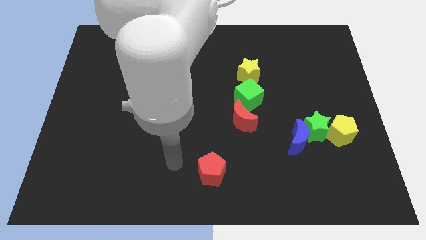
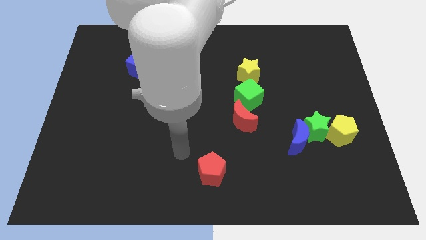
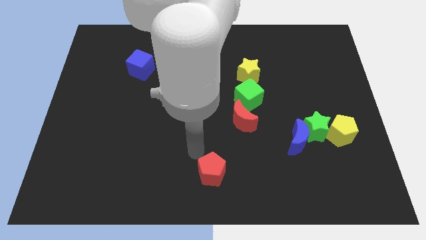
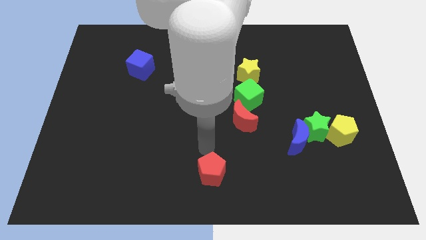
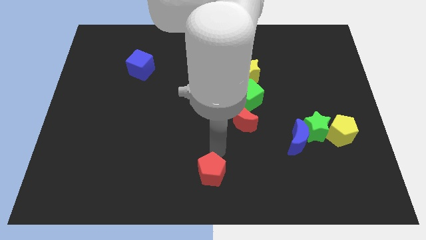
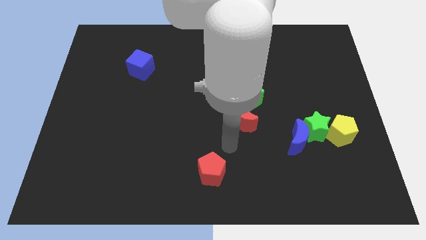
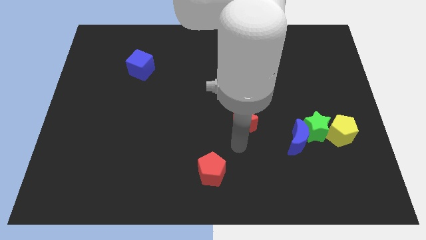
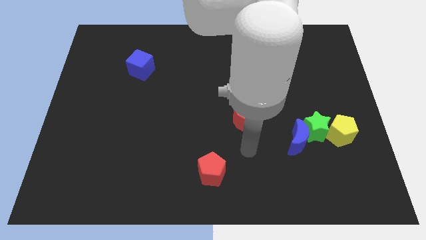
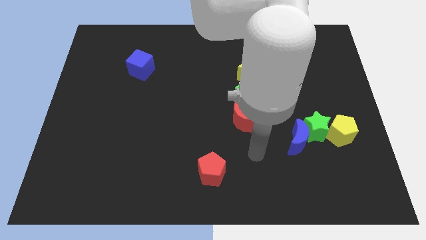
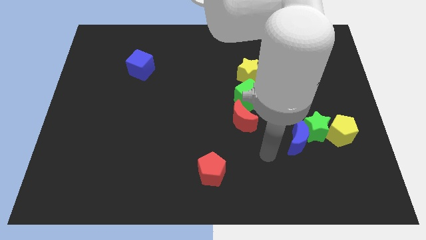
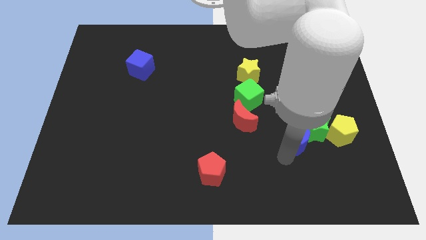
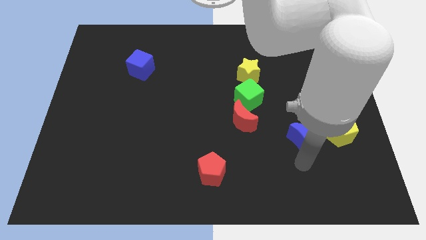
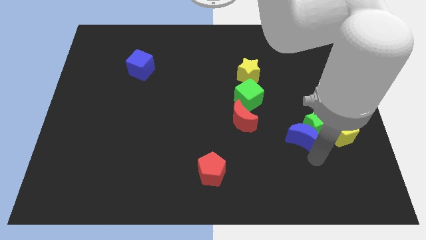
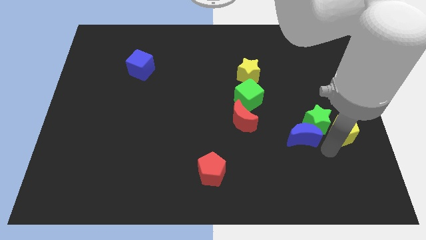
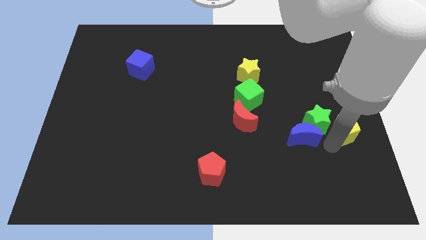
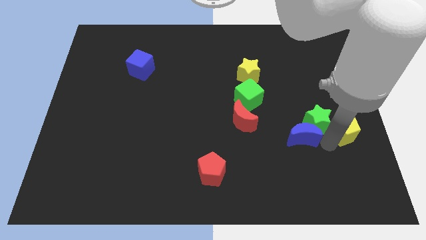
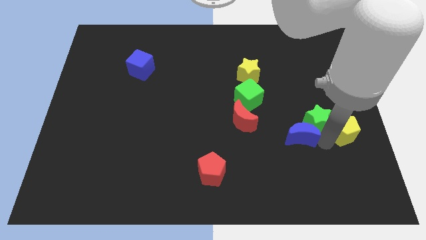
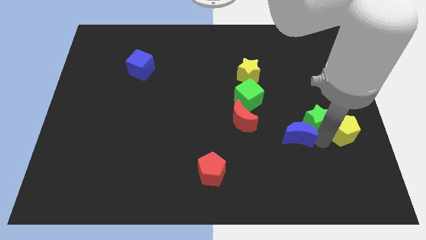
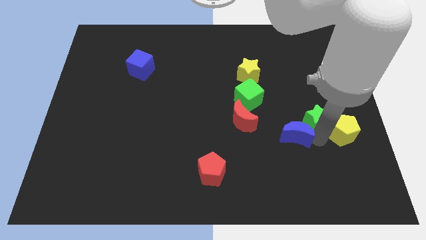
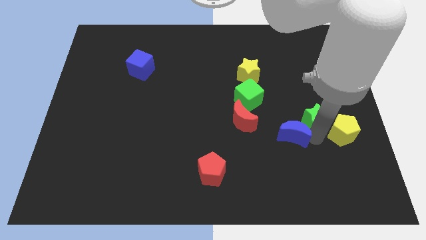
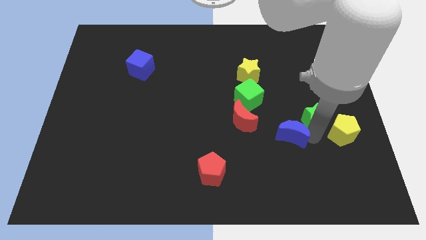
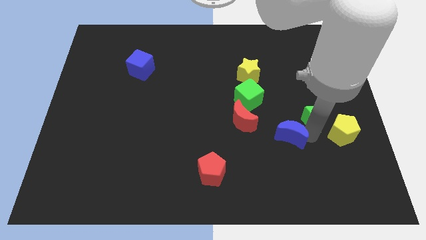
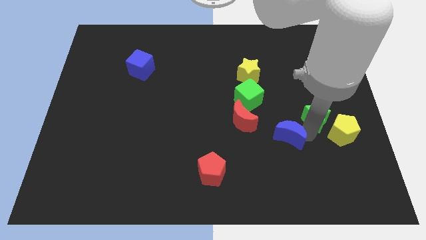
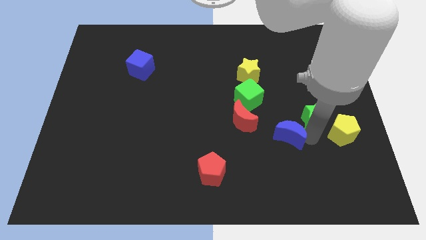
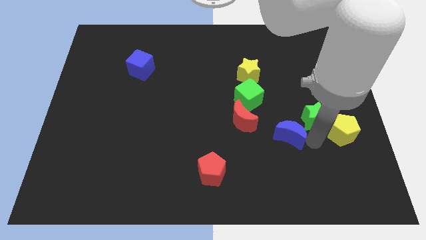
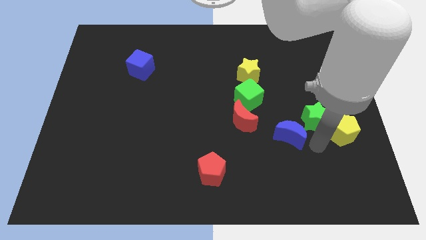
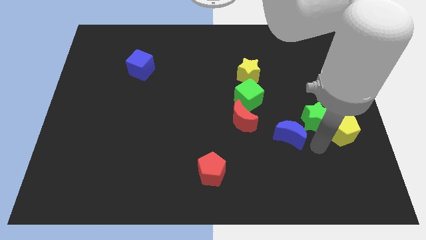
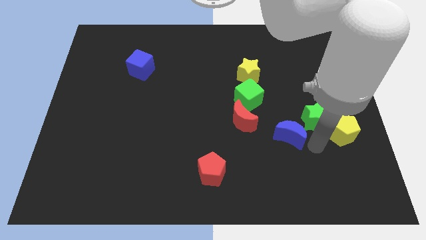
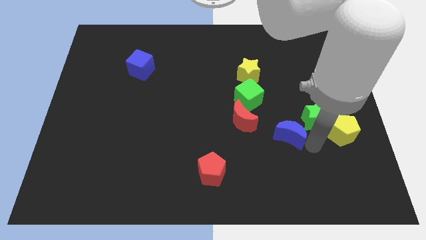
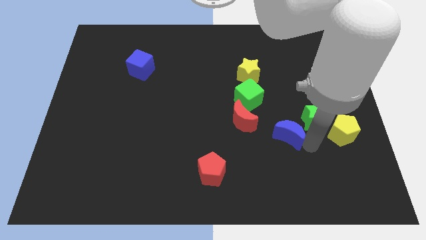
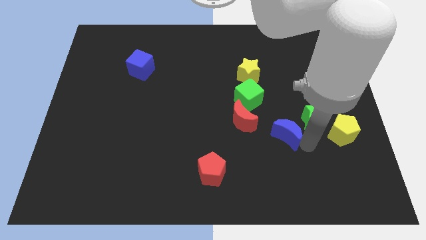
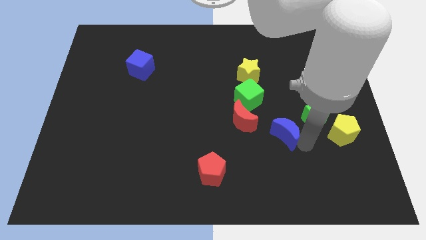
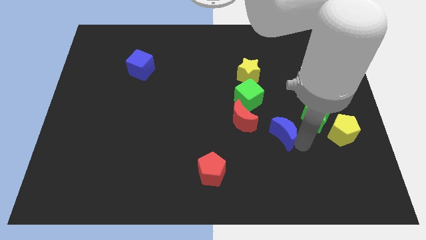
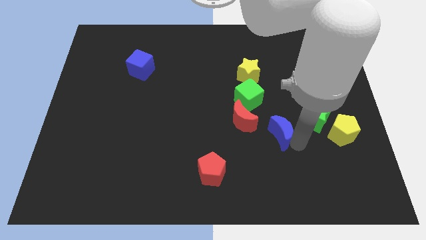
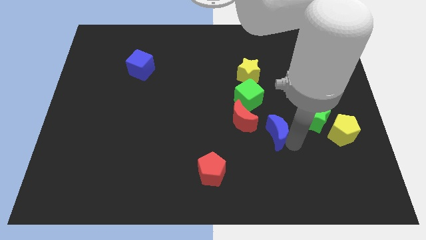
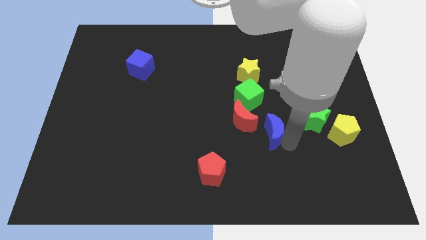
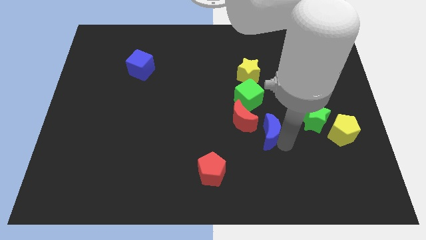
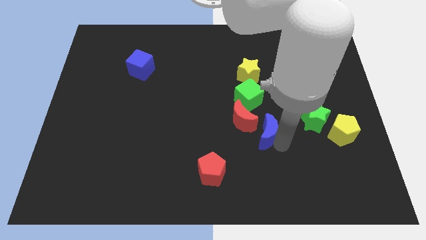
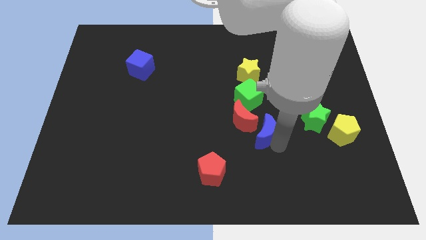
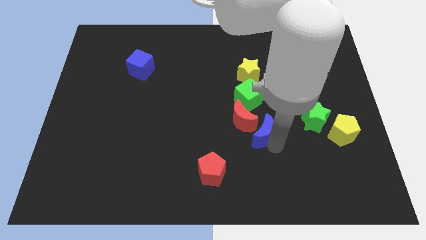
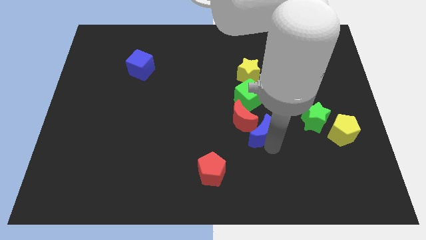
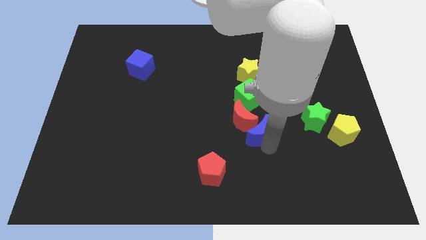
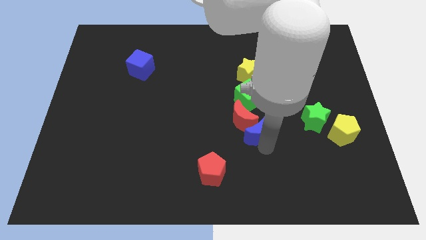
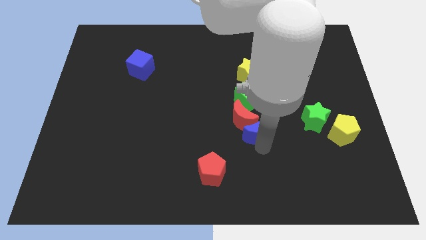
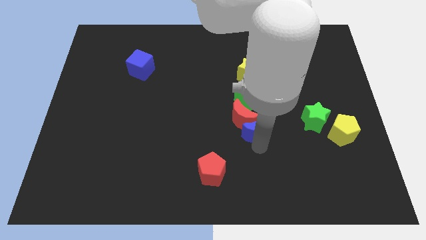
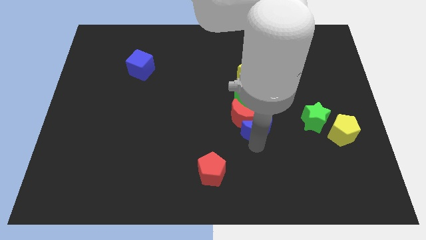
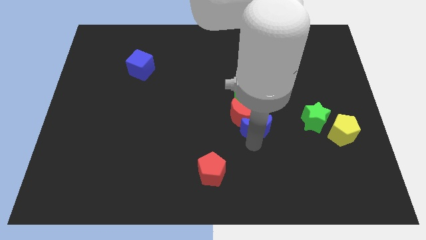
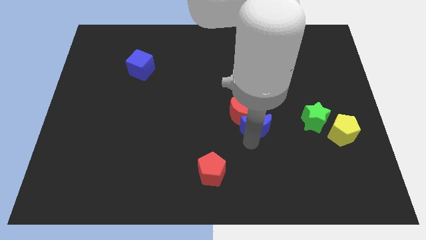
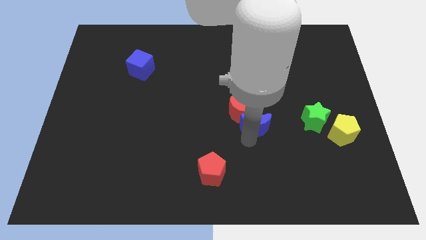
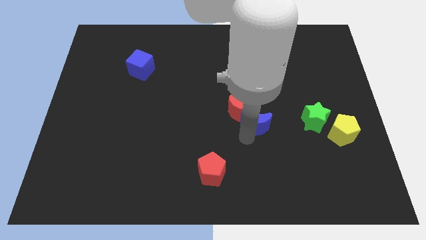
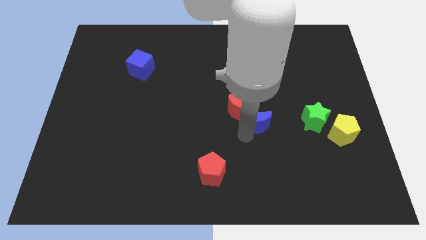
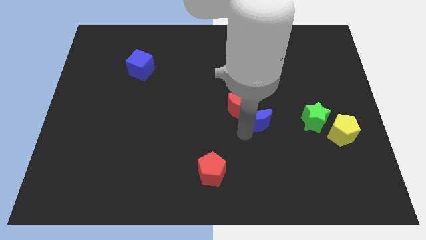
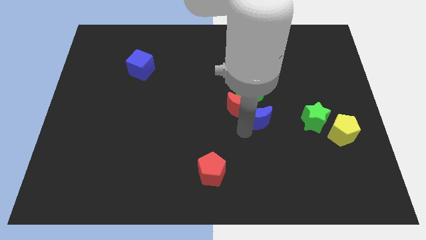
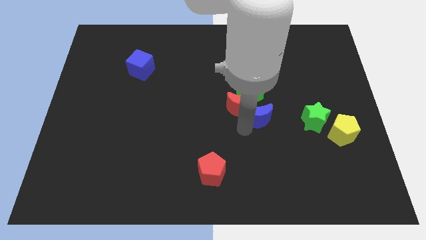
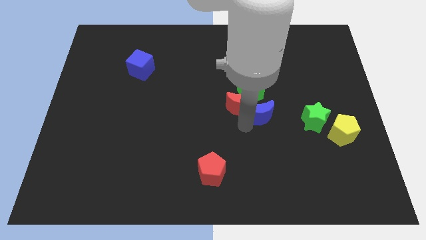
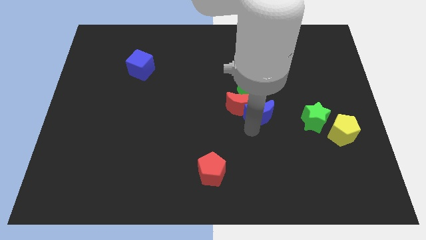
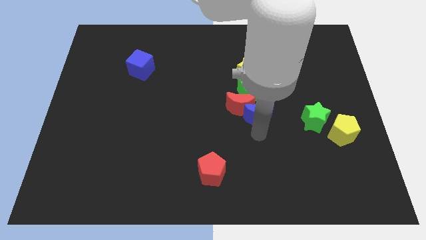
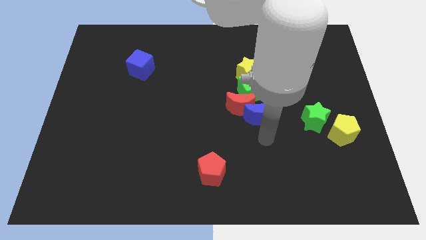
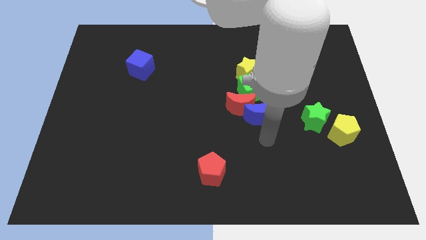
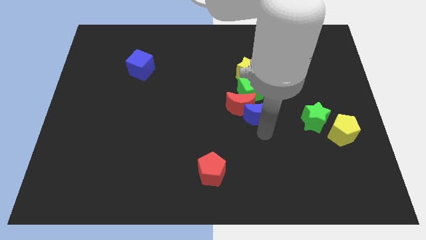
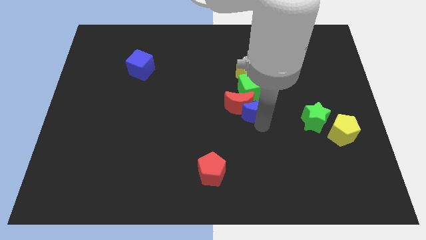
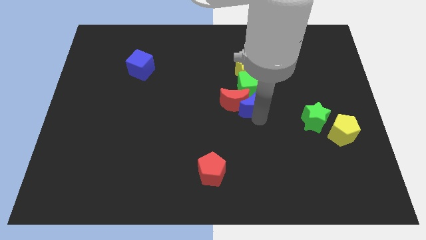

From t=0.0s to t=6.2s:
move the blue moon close to the green cube

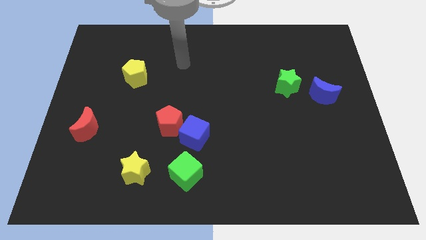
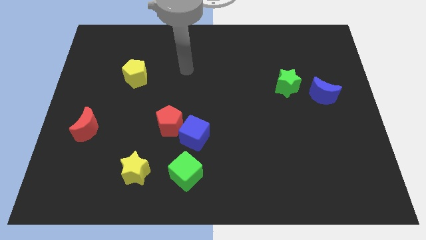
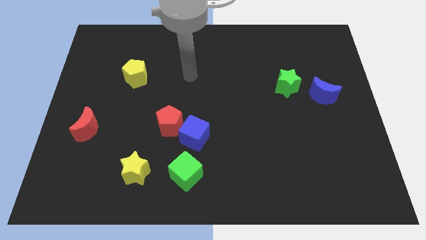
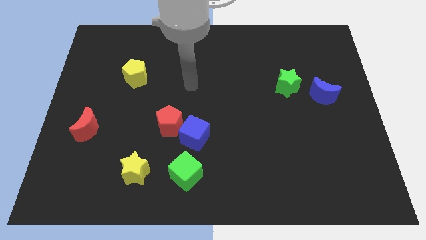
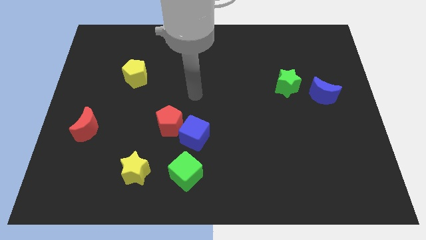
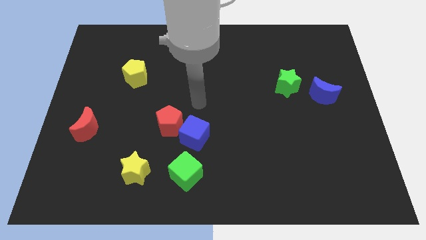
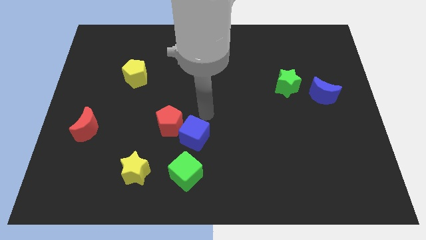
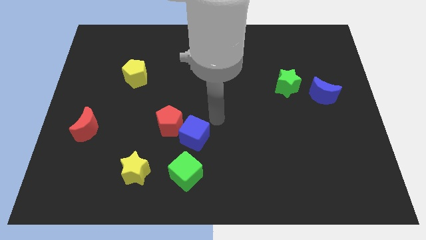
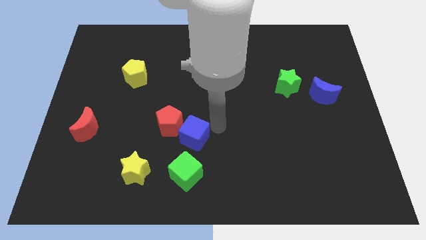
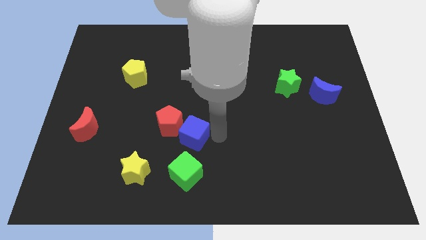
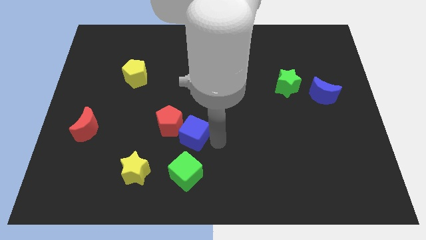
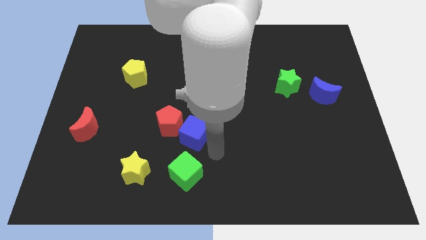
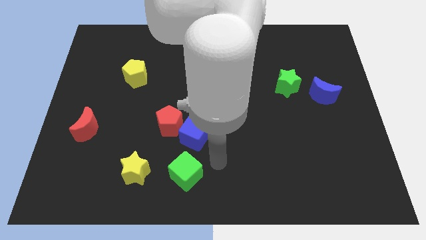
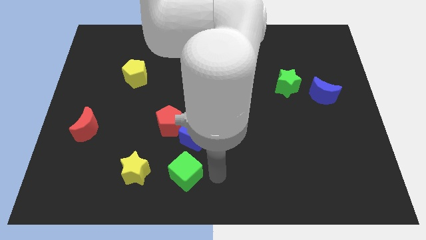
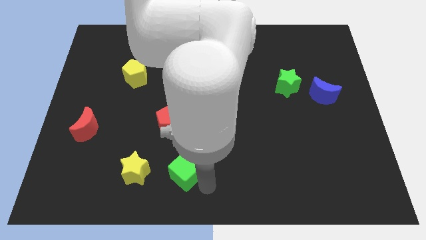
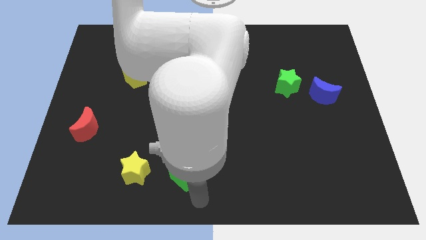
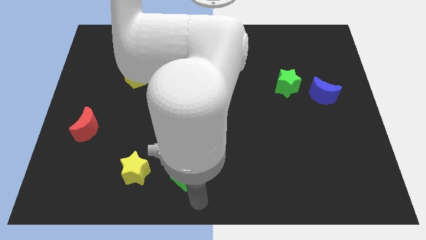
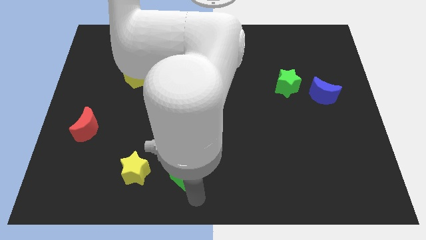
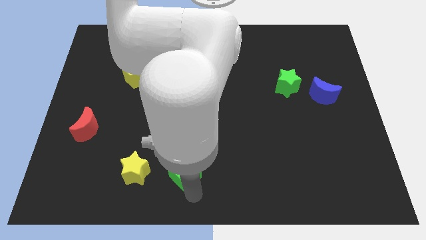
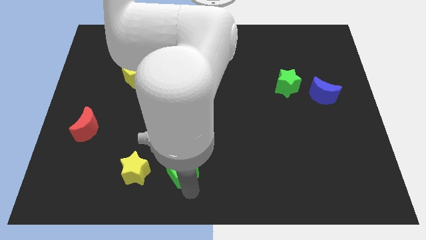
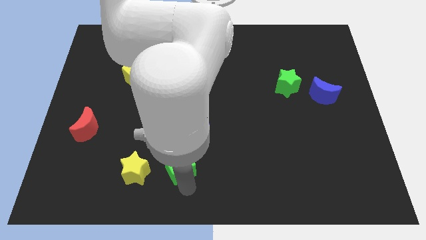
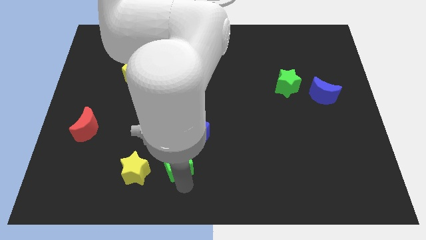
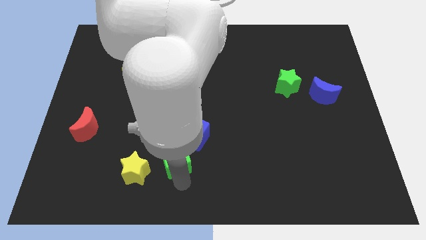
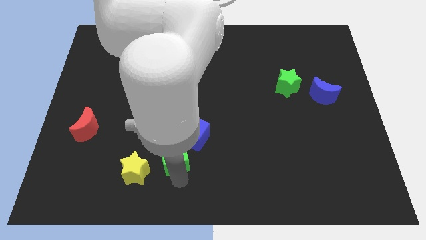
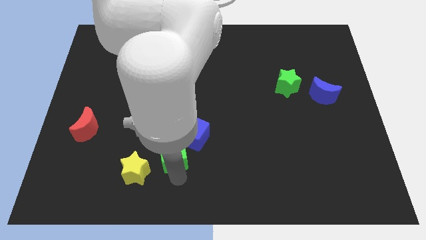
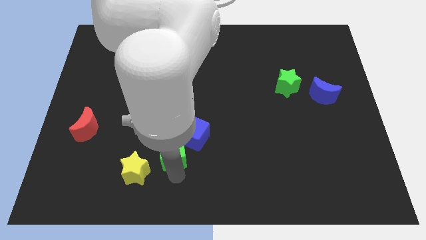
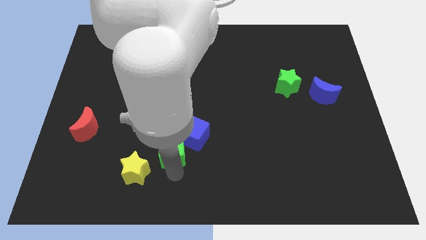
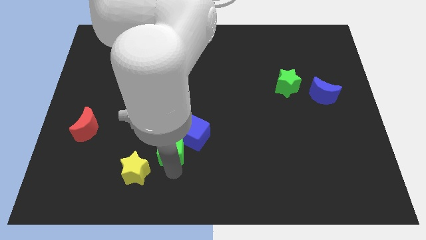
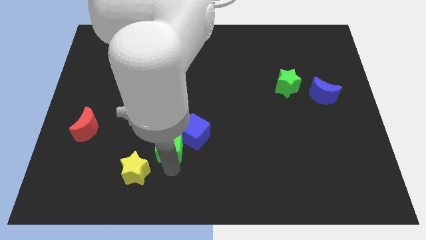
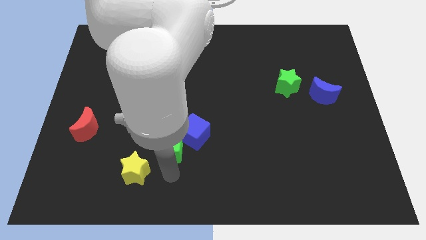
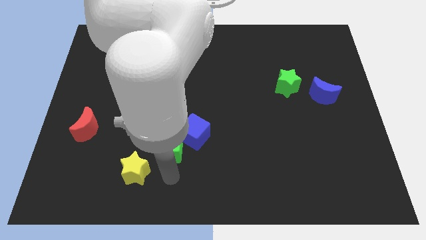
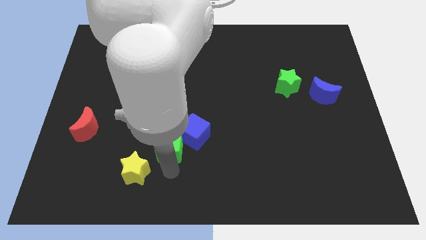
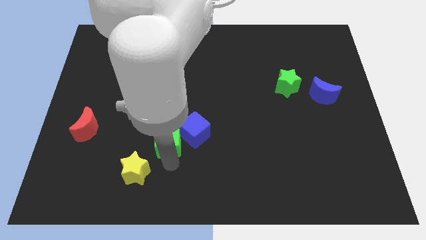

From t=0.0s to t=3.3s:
move the green cube to the red pentagon
